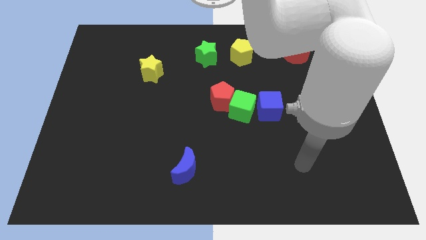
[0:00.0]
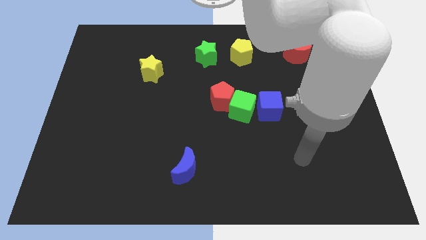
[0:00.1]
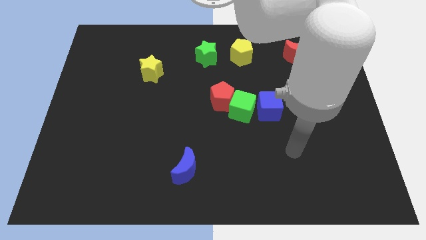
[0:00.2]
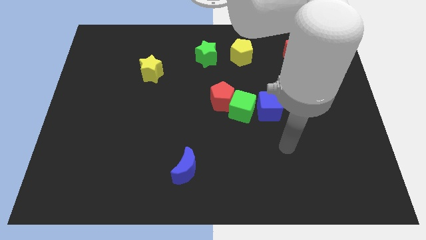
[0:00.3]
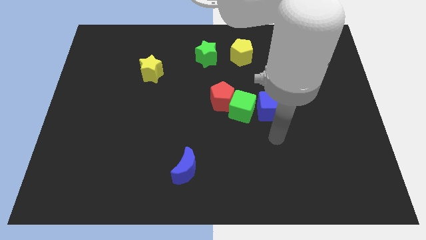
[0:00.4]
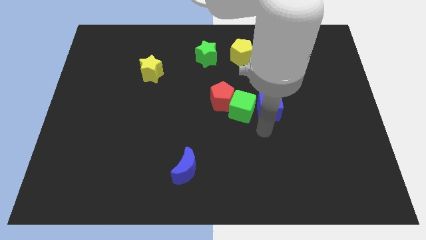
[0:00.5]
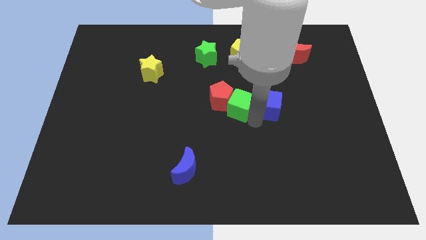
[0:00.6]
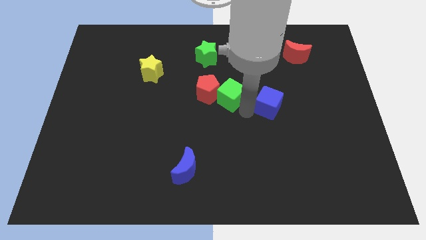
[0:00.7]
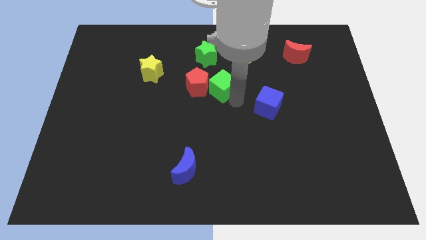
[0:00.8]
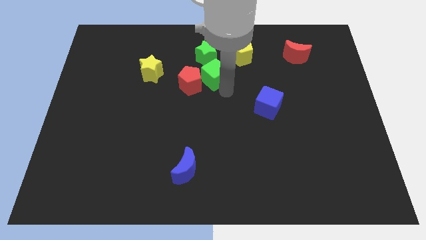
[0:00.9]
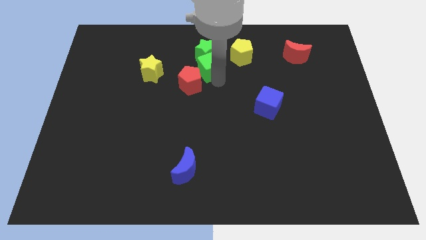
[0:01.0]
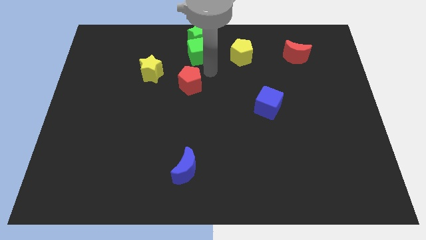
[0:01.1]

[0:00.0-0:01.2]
pull the red pentagon apart from the green cube

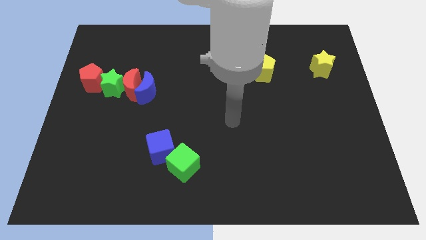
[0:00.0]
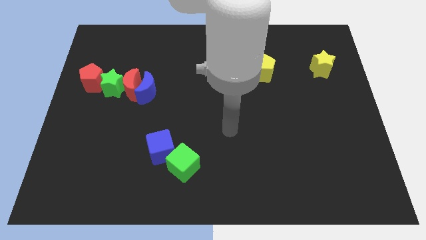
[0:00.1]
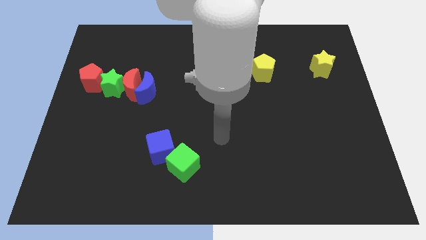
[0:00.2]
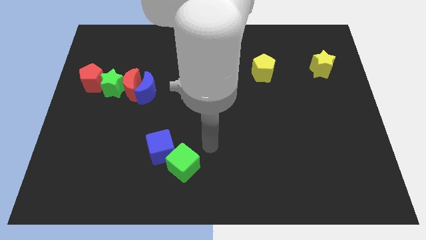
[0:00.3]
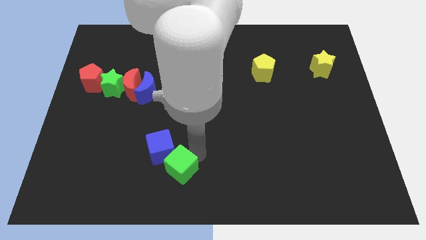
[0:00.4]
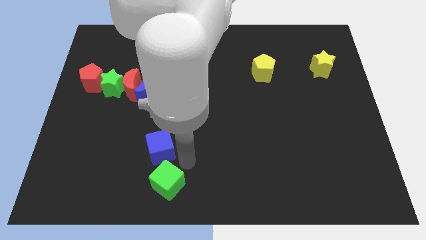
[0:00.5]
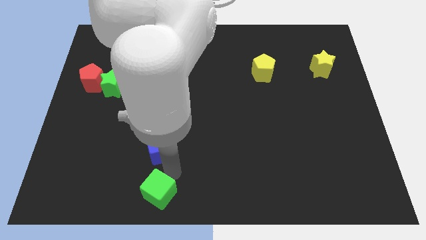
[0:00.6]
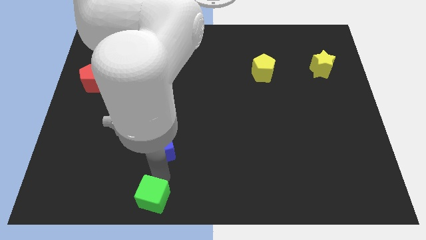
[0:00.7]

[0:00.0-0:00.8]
move the blue cube away from the green cube

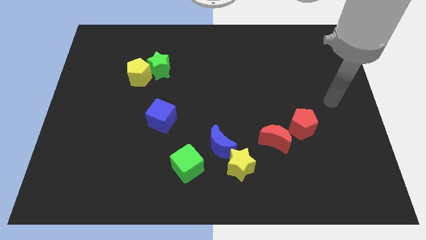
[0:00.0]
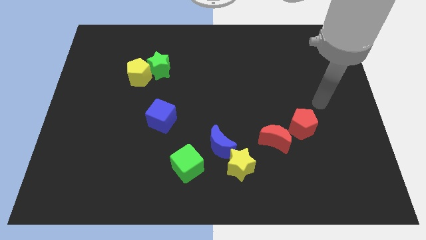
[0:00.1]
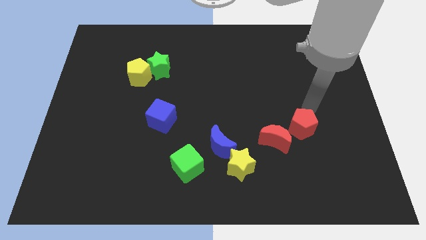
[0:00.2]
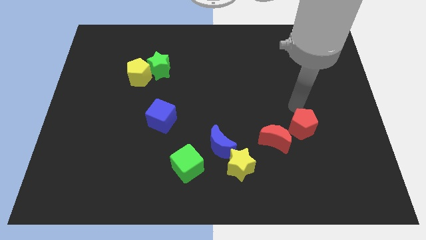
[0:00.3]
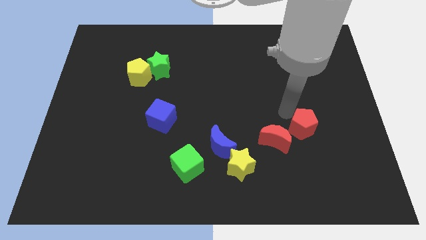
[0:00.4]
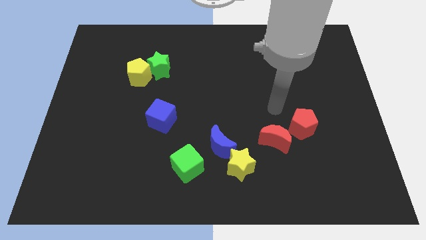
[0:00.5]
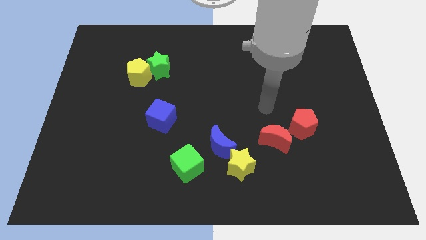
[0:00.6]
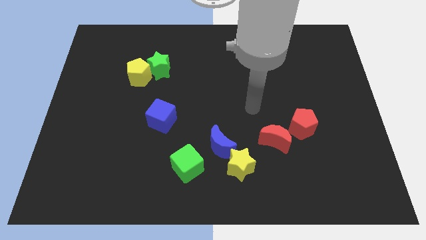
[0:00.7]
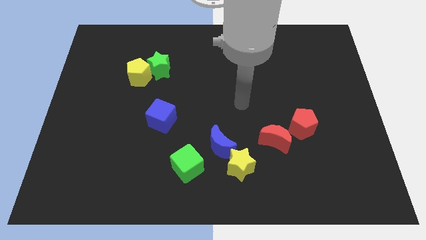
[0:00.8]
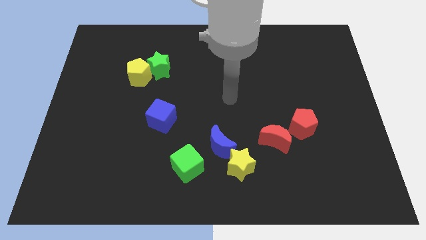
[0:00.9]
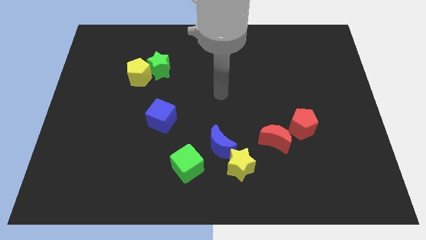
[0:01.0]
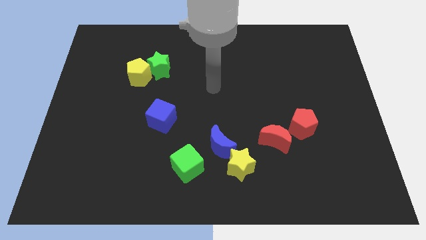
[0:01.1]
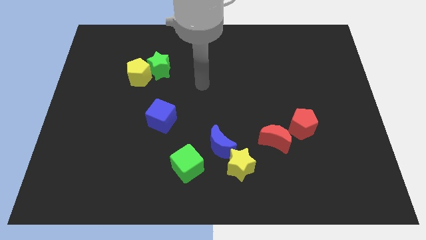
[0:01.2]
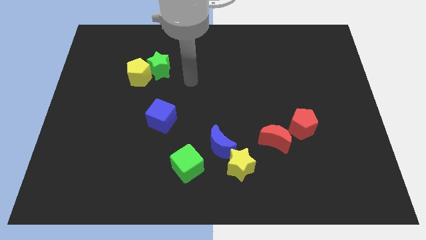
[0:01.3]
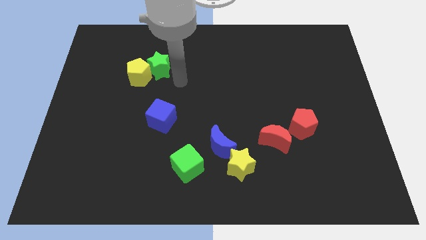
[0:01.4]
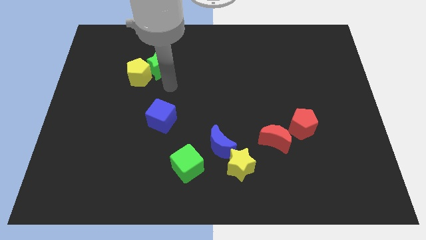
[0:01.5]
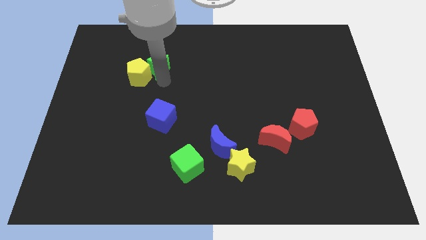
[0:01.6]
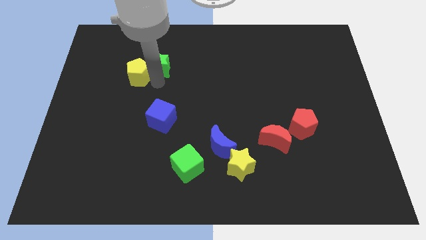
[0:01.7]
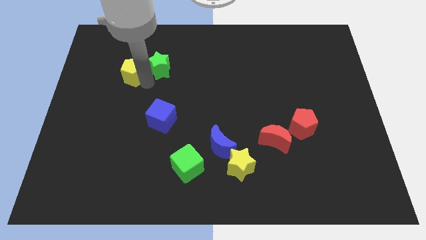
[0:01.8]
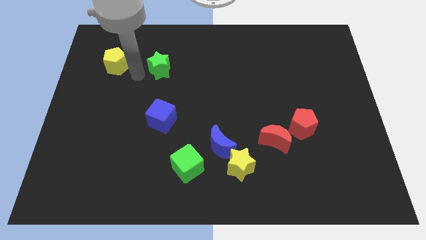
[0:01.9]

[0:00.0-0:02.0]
separate the green star from the yellow pentagon

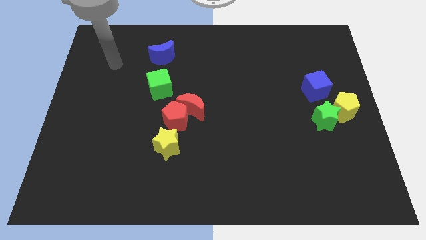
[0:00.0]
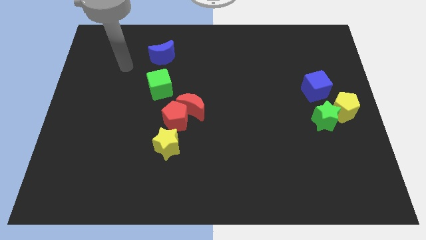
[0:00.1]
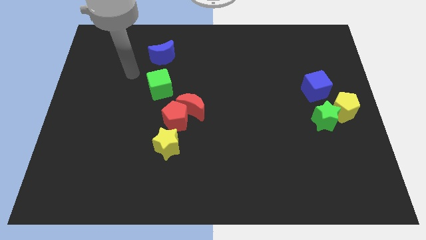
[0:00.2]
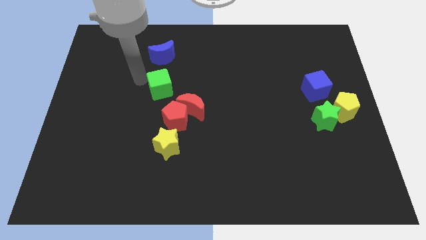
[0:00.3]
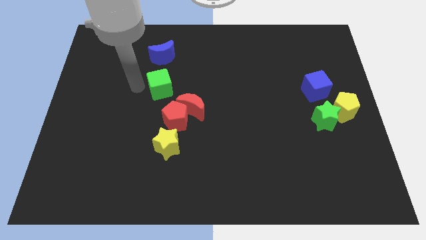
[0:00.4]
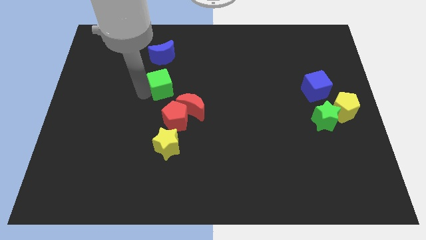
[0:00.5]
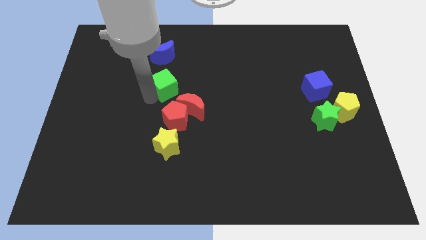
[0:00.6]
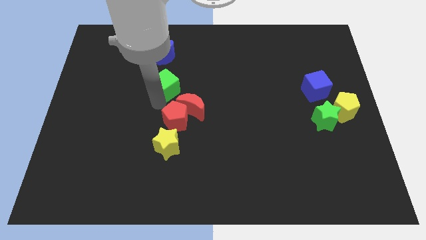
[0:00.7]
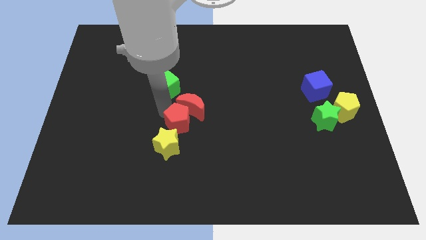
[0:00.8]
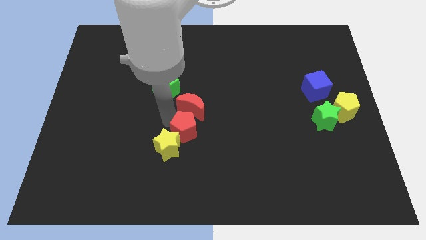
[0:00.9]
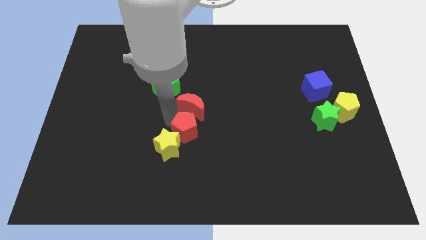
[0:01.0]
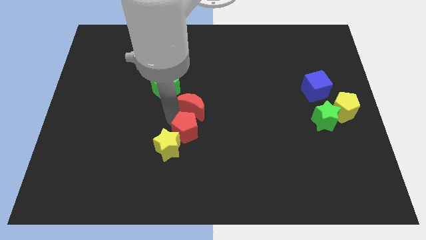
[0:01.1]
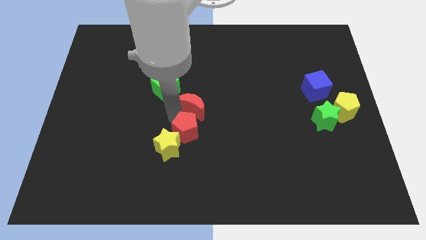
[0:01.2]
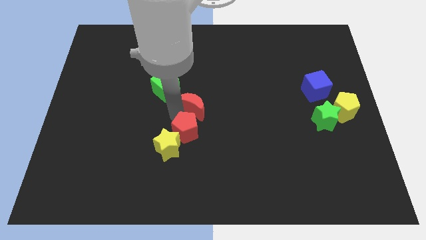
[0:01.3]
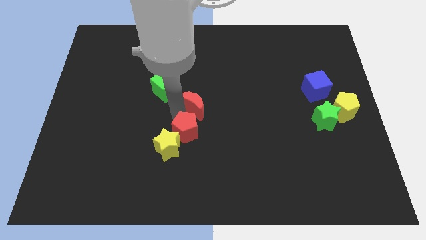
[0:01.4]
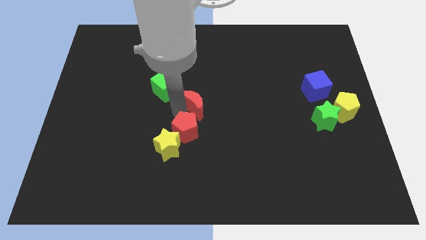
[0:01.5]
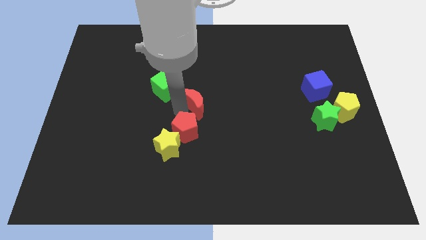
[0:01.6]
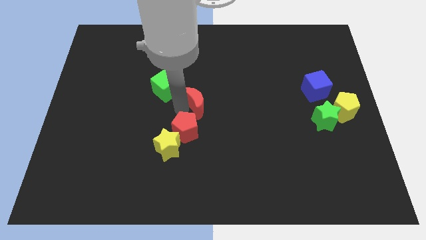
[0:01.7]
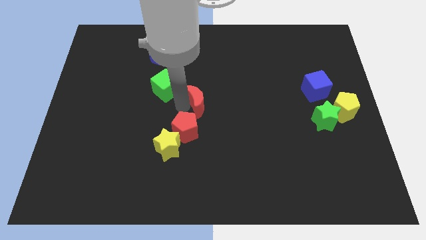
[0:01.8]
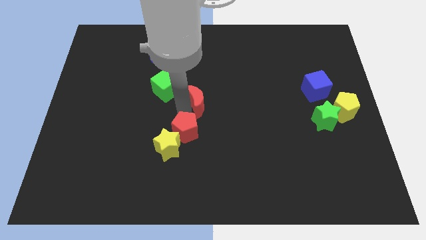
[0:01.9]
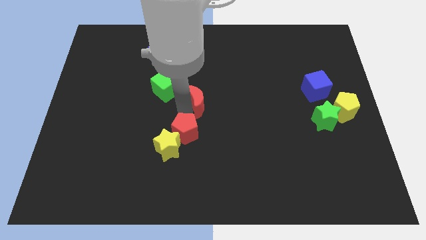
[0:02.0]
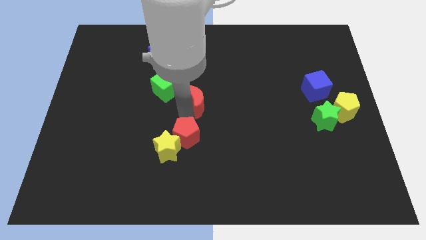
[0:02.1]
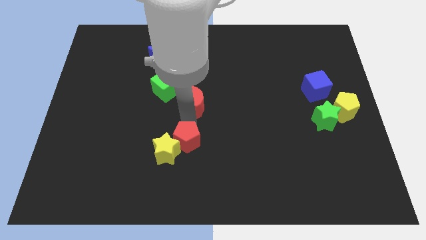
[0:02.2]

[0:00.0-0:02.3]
separate the red moon from the red pentagon

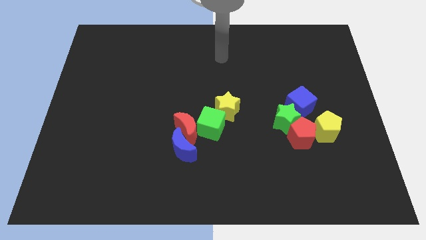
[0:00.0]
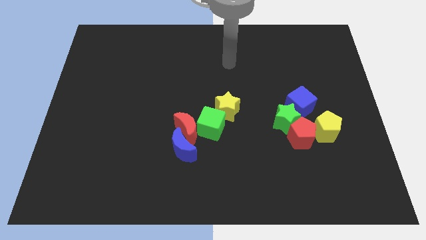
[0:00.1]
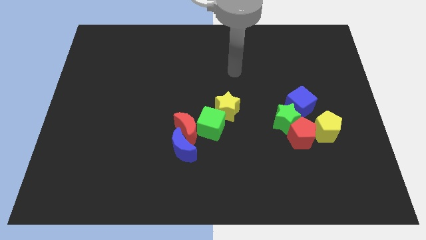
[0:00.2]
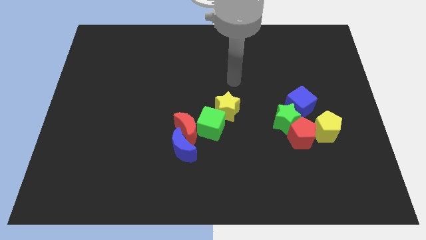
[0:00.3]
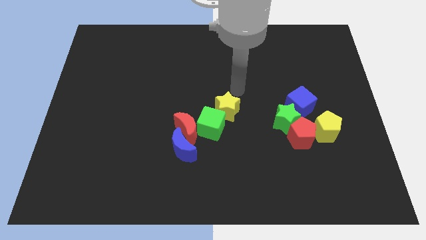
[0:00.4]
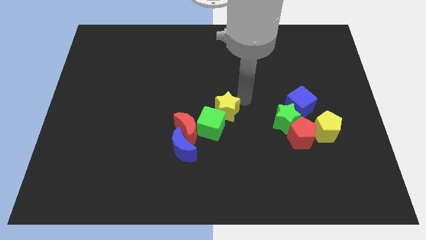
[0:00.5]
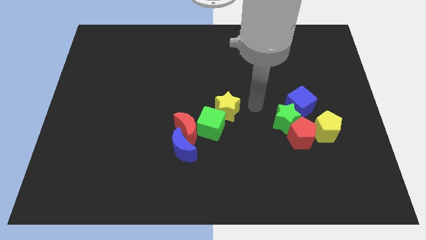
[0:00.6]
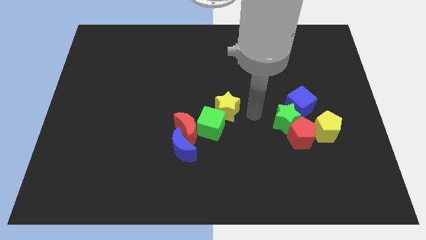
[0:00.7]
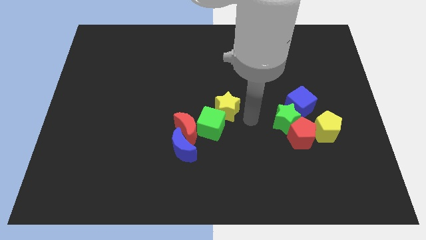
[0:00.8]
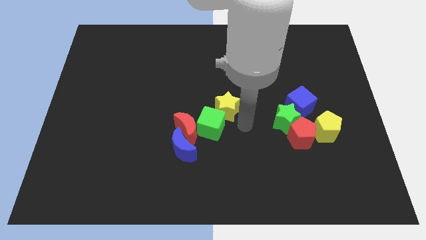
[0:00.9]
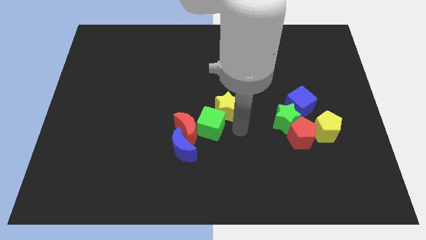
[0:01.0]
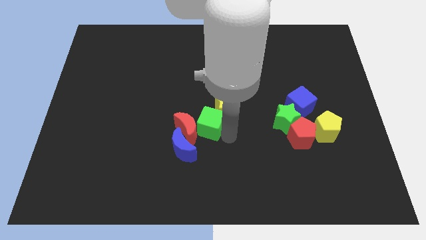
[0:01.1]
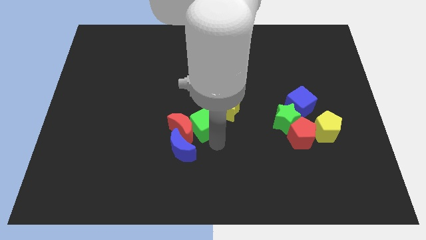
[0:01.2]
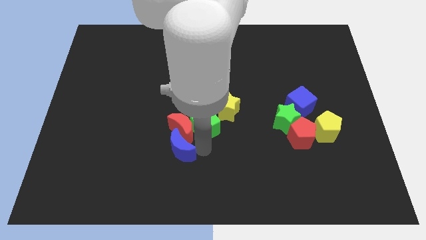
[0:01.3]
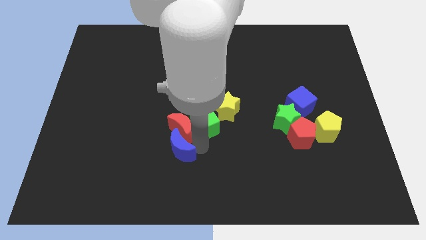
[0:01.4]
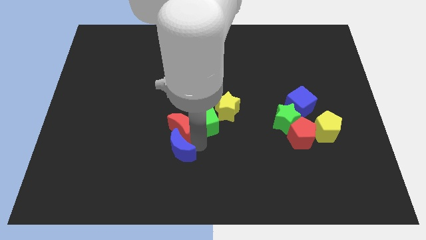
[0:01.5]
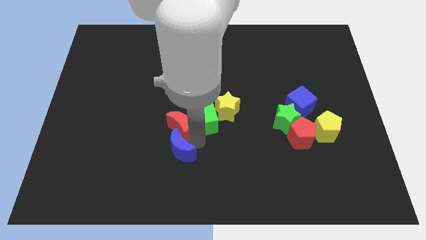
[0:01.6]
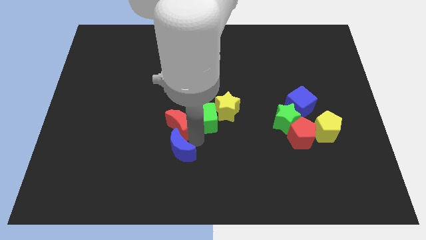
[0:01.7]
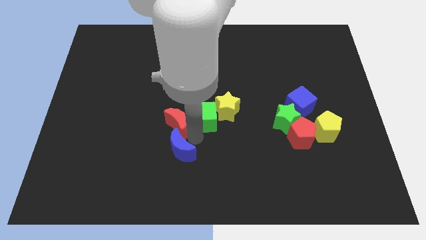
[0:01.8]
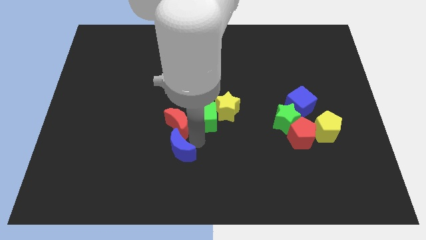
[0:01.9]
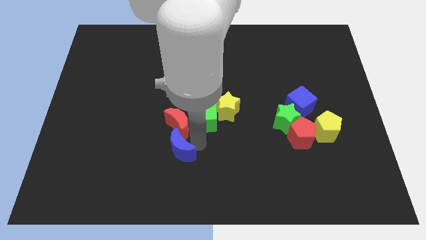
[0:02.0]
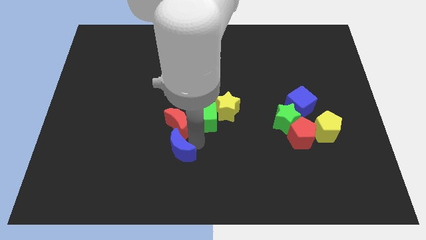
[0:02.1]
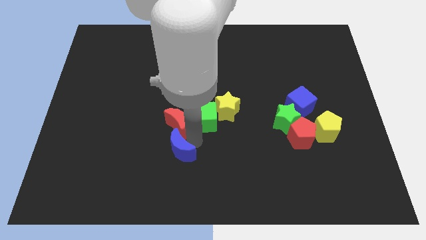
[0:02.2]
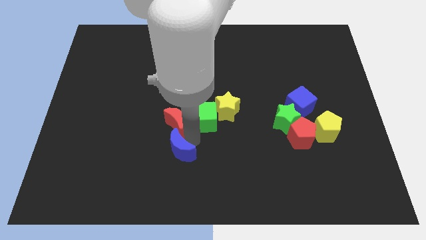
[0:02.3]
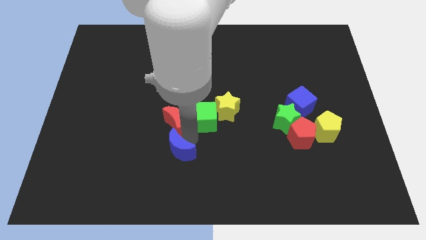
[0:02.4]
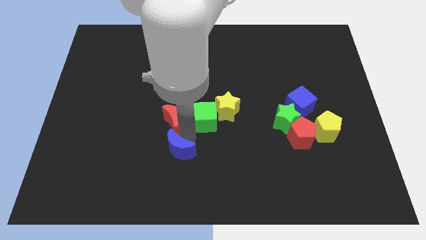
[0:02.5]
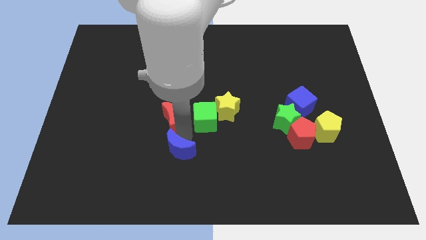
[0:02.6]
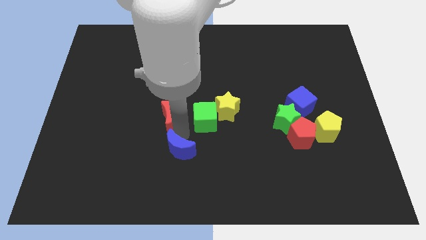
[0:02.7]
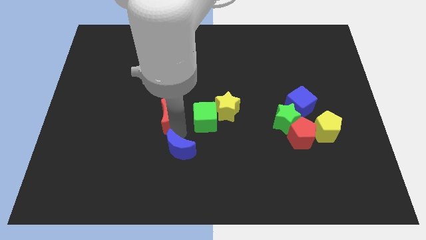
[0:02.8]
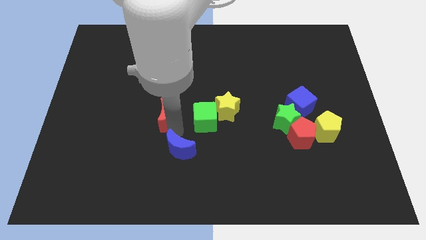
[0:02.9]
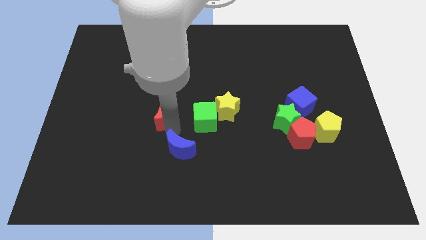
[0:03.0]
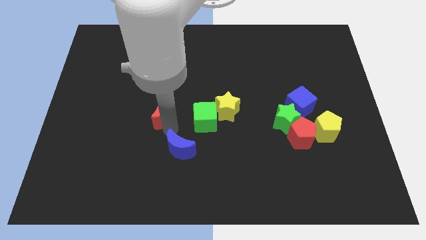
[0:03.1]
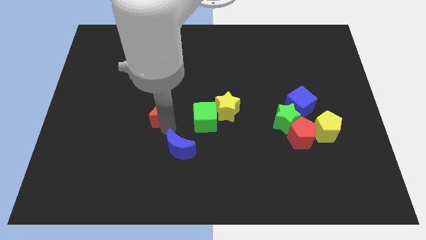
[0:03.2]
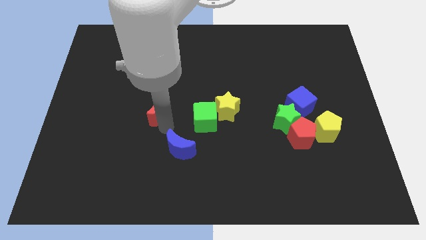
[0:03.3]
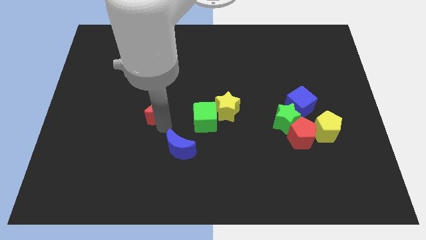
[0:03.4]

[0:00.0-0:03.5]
move the red moon away from the blue moon and green cube
